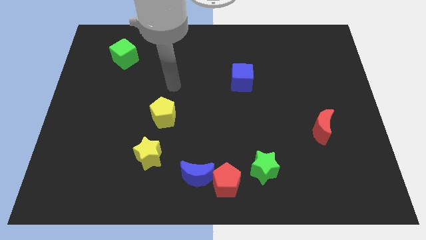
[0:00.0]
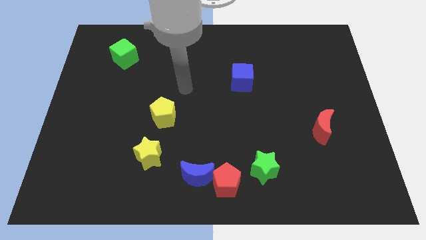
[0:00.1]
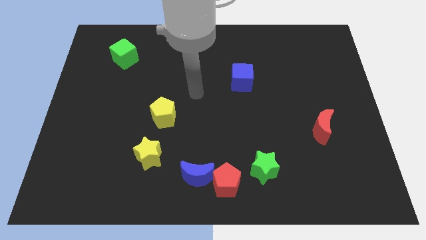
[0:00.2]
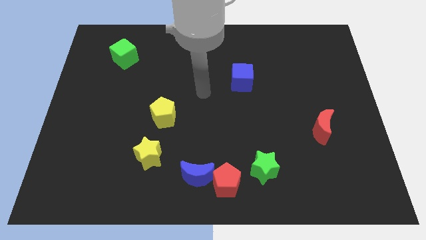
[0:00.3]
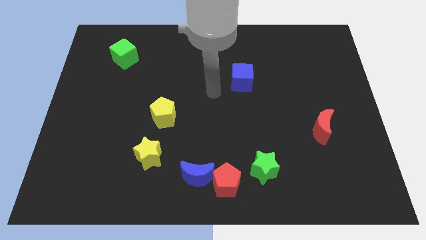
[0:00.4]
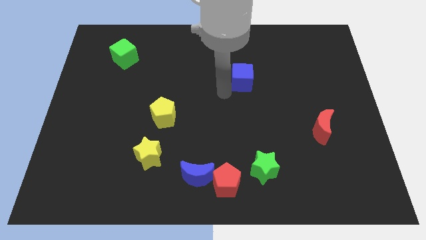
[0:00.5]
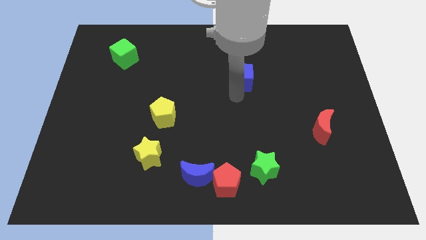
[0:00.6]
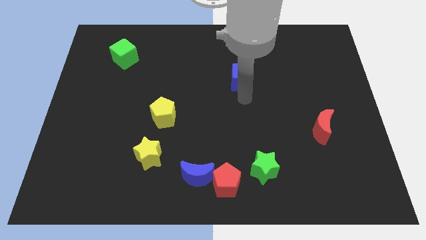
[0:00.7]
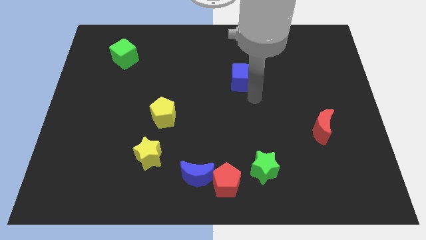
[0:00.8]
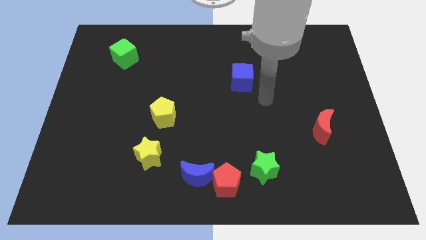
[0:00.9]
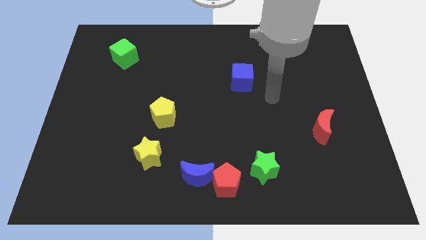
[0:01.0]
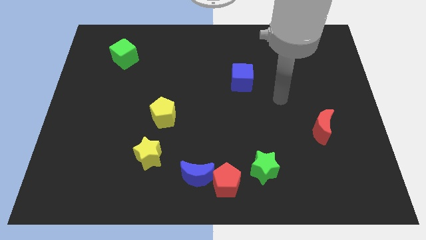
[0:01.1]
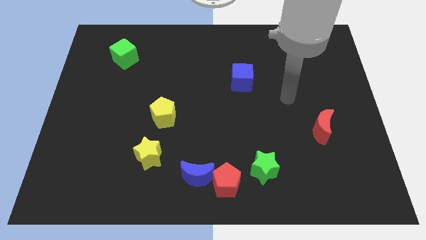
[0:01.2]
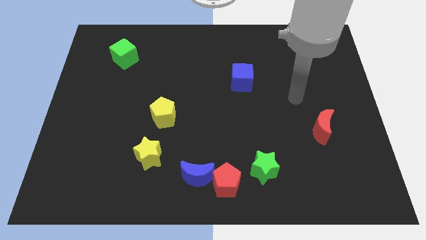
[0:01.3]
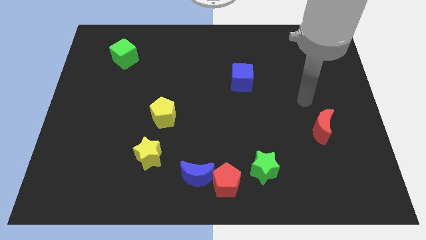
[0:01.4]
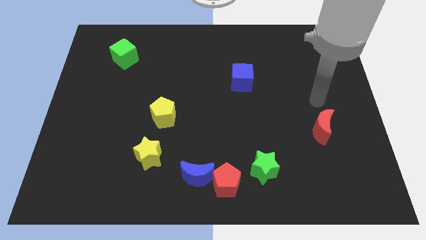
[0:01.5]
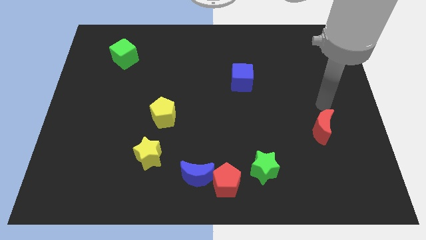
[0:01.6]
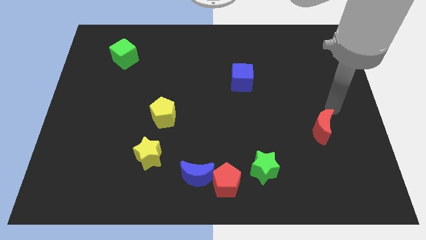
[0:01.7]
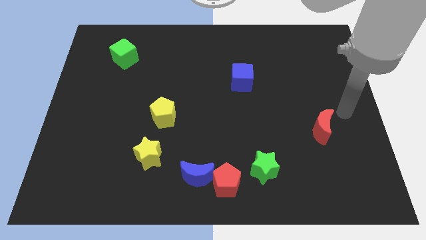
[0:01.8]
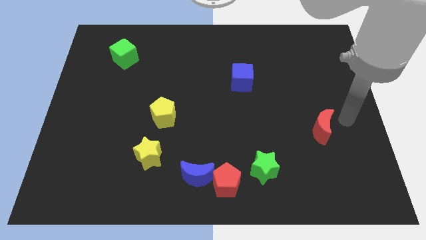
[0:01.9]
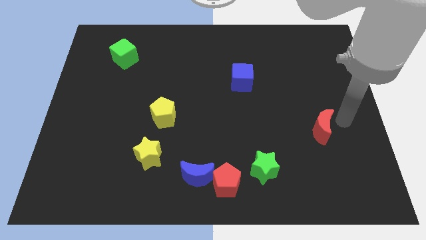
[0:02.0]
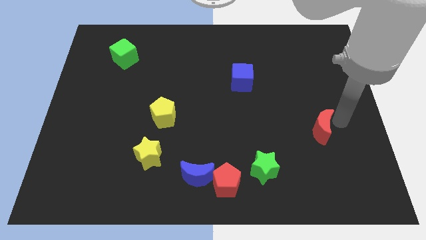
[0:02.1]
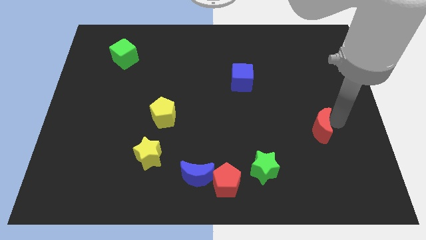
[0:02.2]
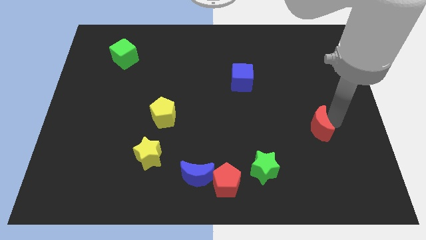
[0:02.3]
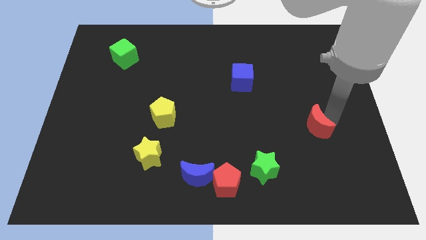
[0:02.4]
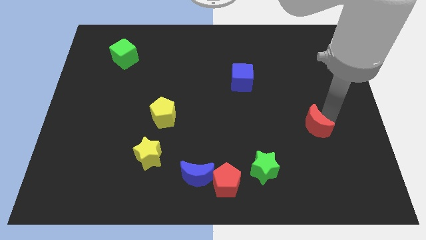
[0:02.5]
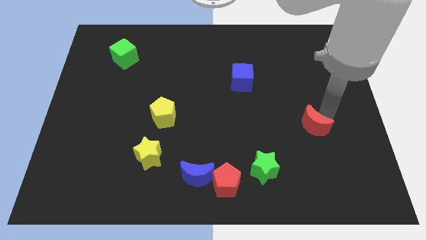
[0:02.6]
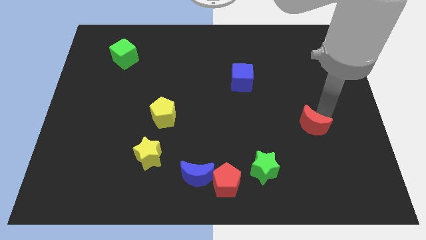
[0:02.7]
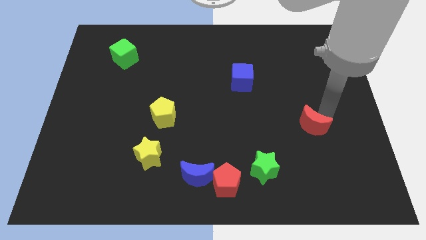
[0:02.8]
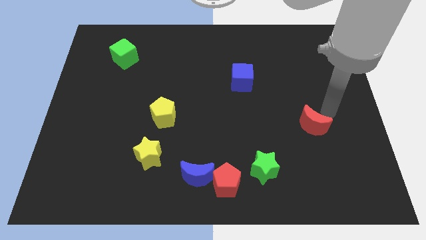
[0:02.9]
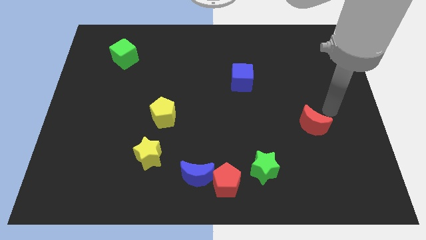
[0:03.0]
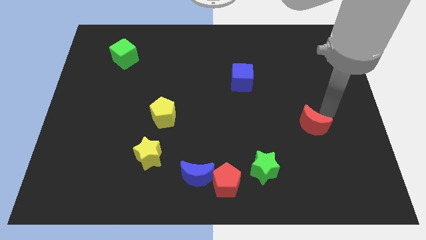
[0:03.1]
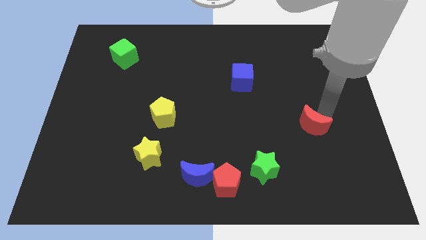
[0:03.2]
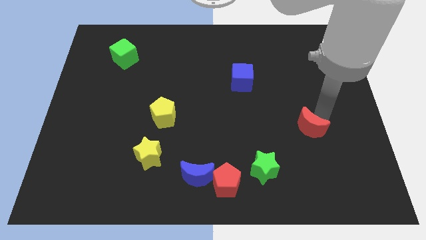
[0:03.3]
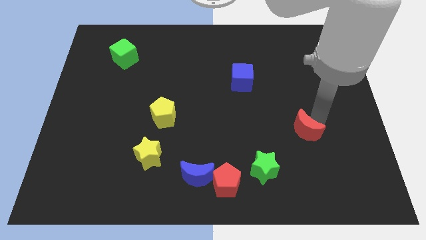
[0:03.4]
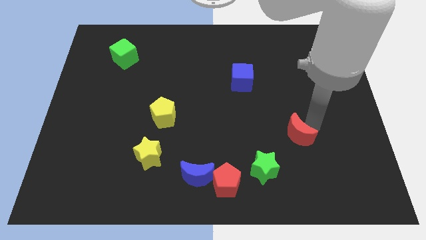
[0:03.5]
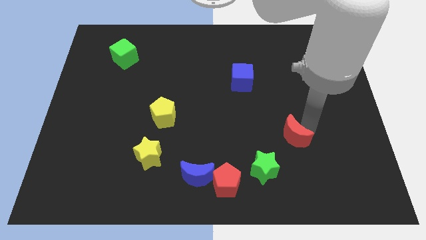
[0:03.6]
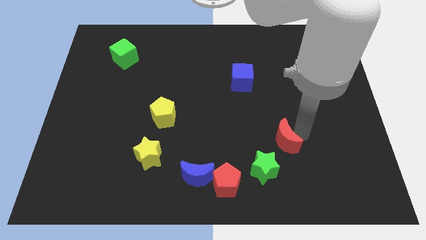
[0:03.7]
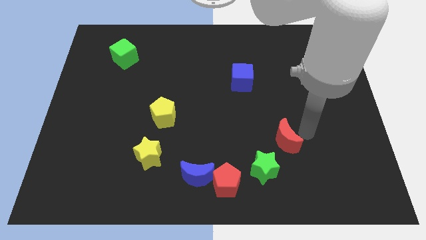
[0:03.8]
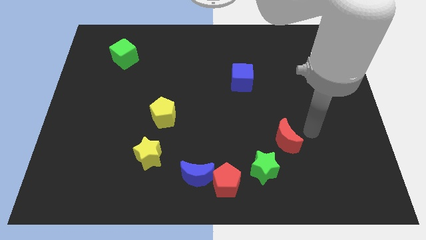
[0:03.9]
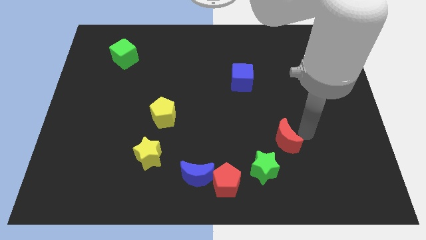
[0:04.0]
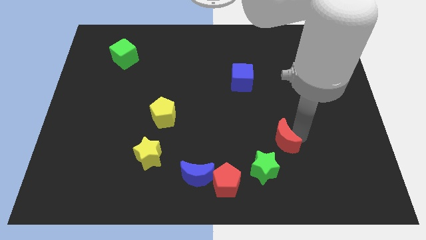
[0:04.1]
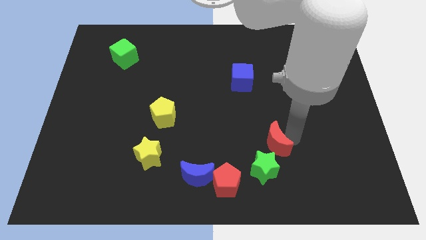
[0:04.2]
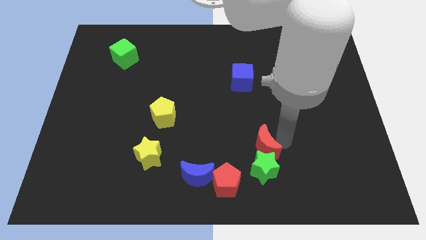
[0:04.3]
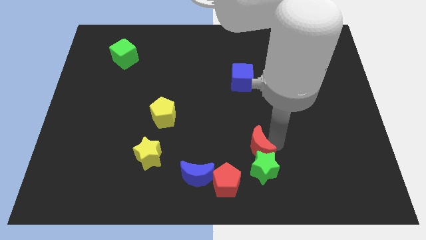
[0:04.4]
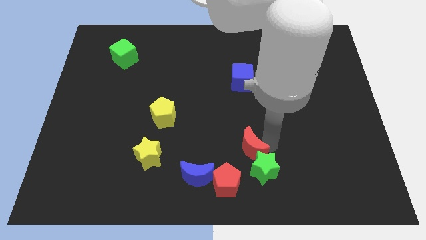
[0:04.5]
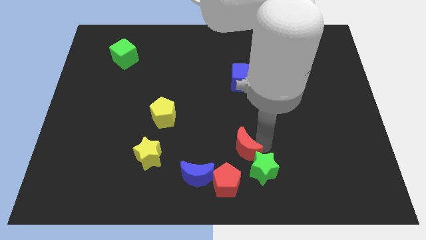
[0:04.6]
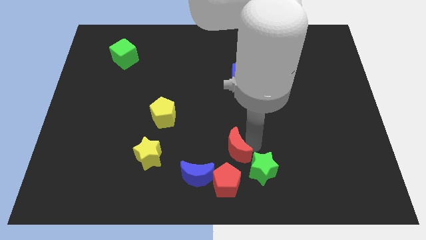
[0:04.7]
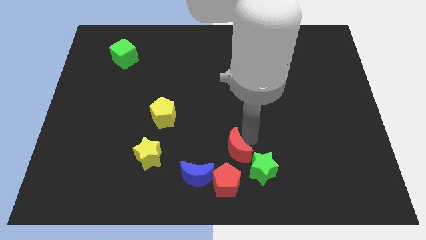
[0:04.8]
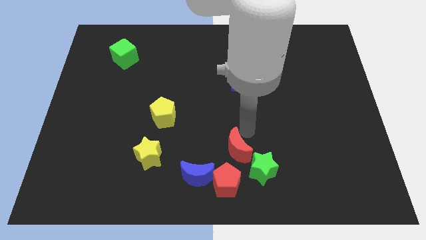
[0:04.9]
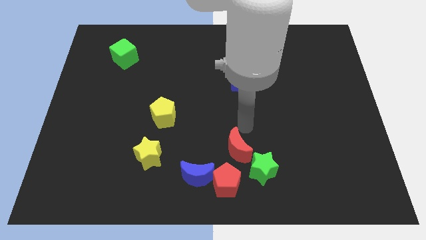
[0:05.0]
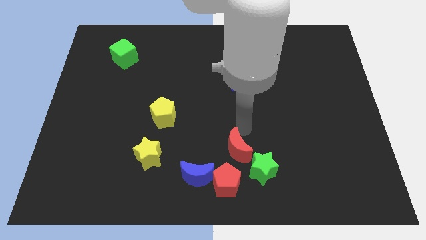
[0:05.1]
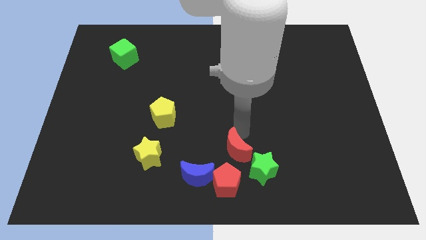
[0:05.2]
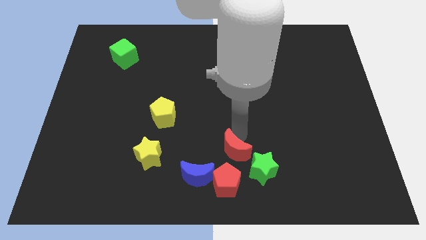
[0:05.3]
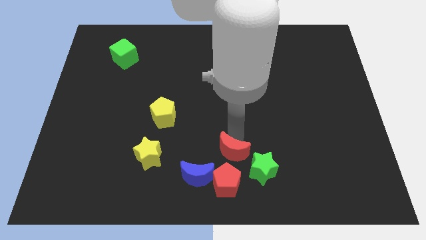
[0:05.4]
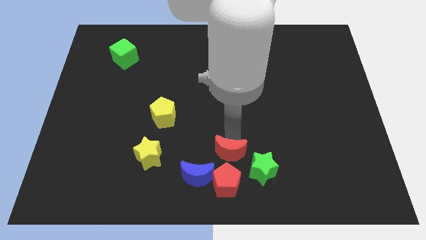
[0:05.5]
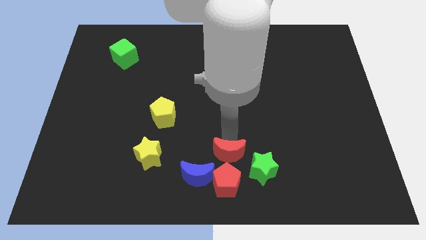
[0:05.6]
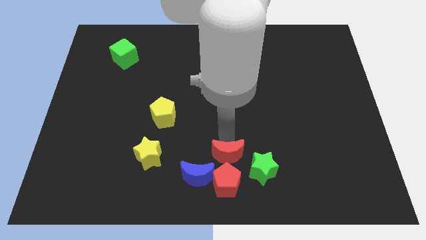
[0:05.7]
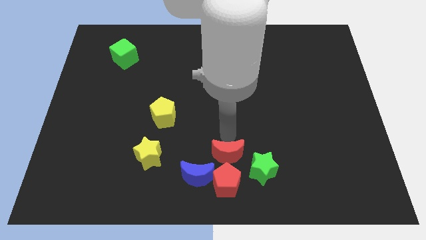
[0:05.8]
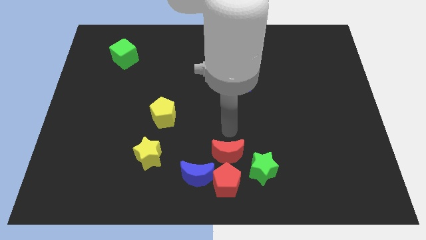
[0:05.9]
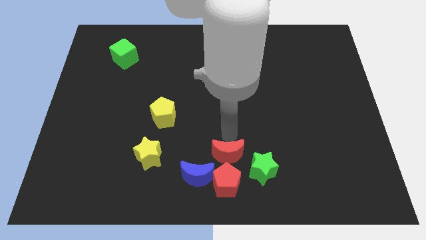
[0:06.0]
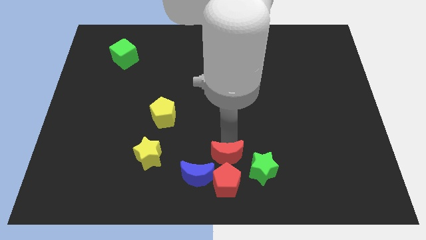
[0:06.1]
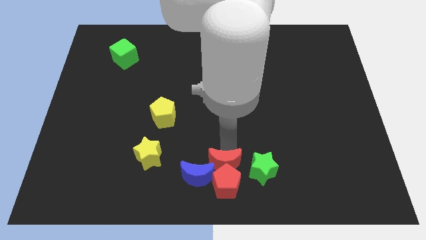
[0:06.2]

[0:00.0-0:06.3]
move the red moon close to the red pentagon
